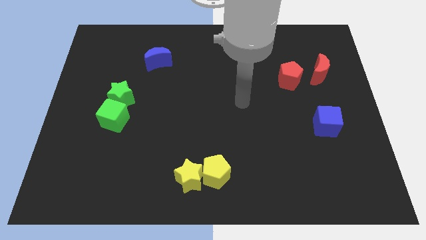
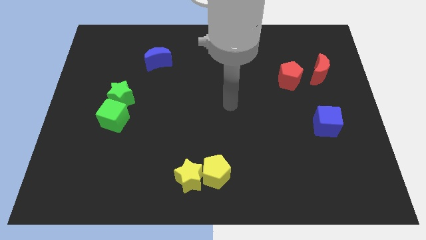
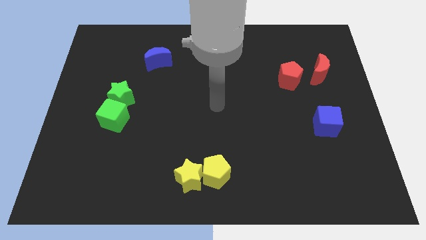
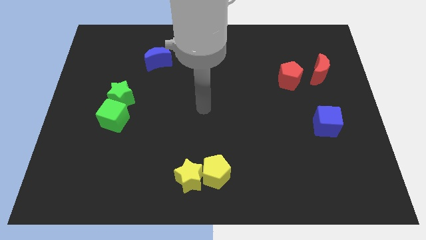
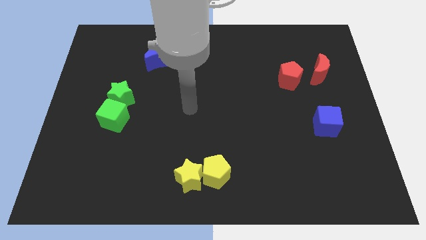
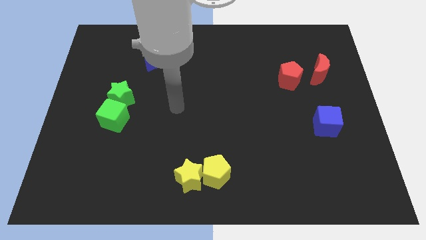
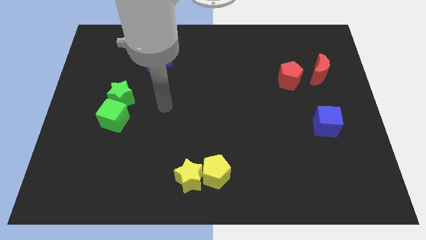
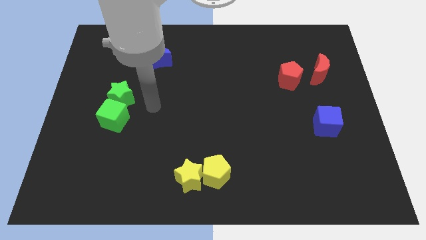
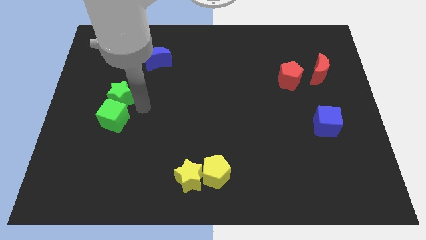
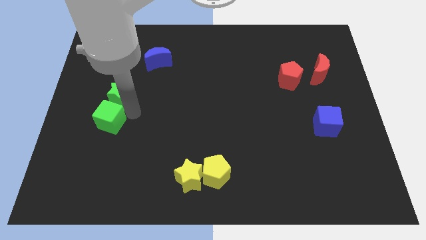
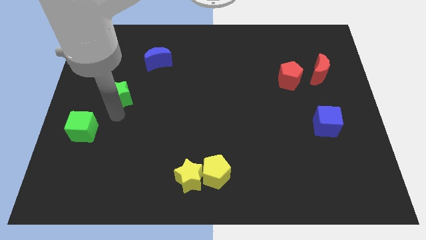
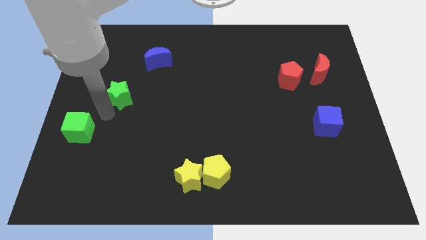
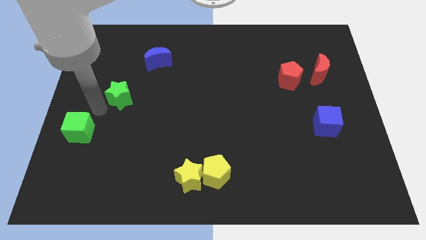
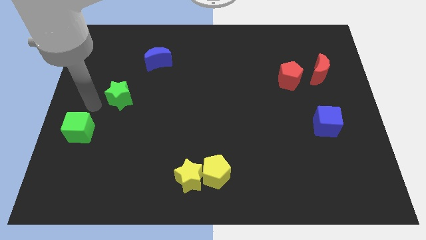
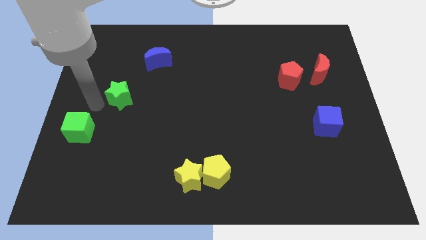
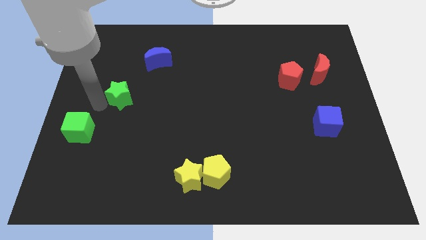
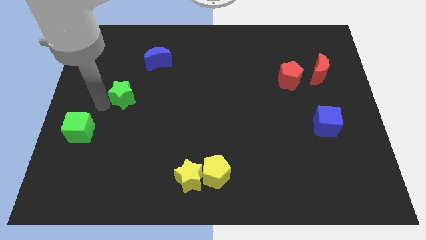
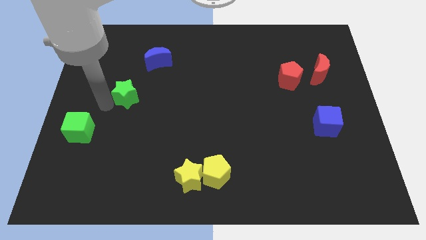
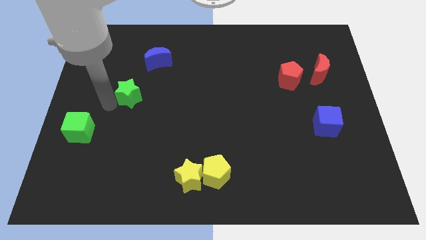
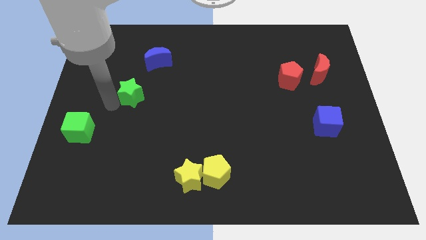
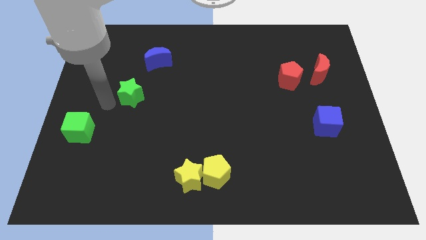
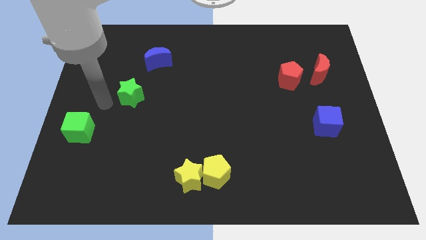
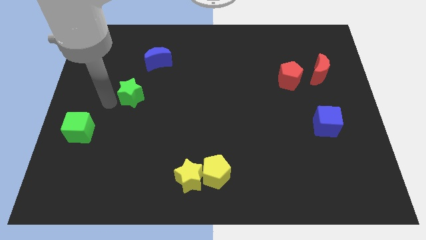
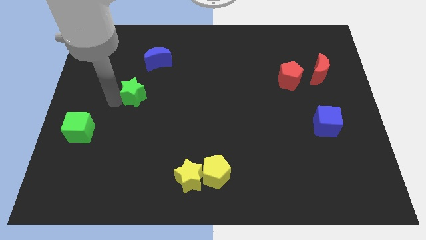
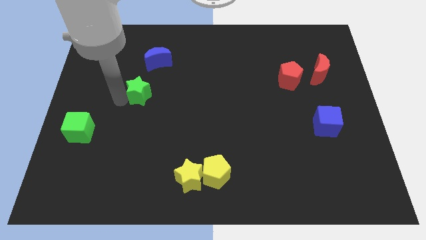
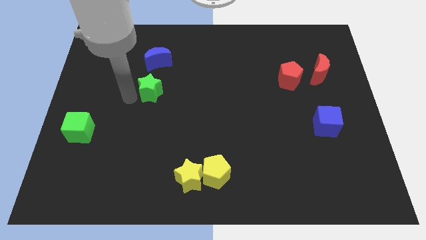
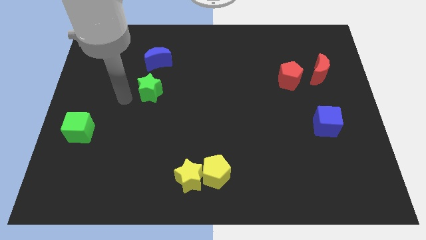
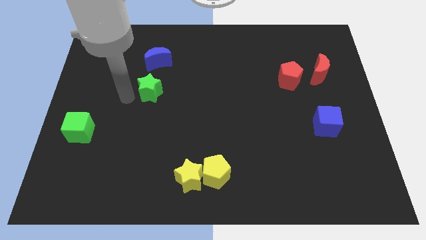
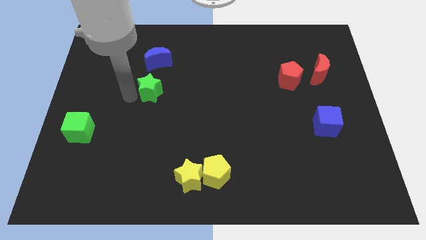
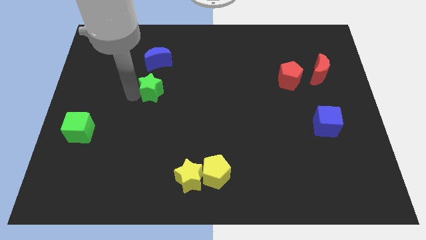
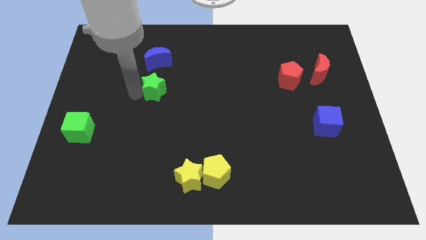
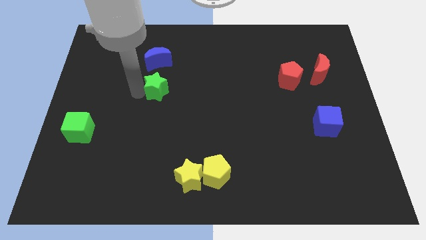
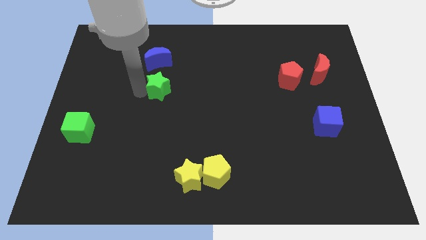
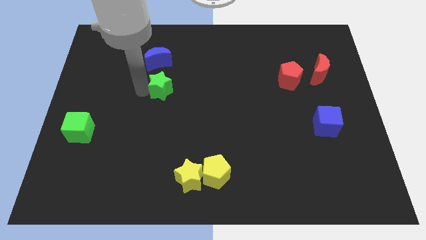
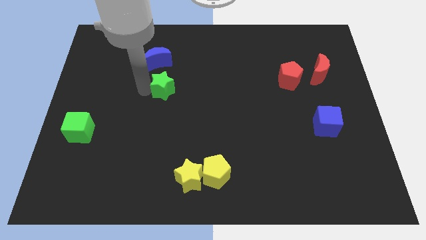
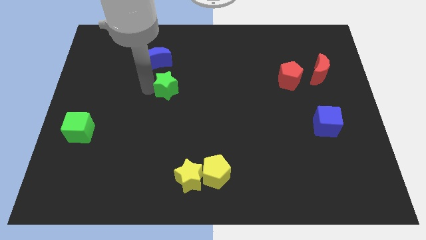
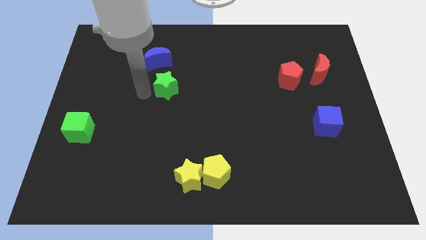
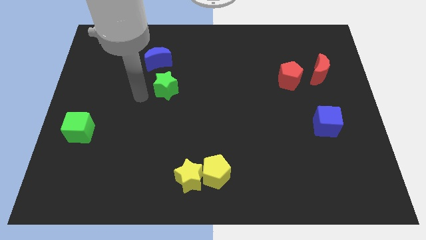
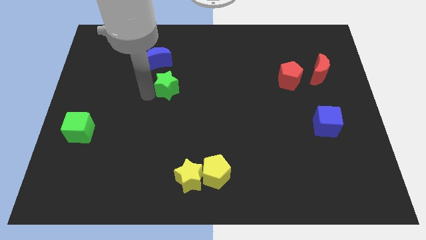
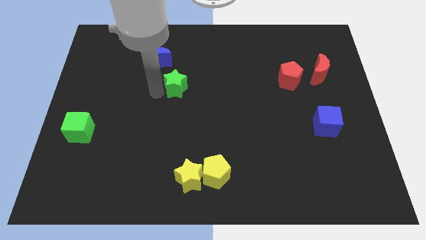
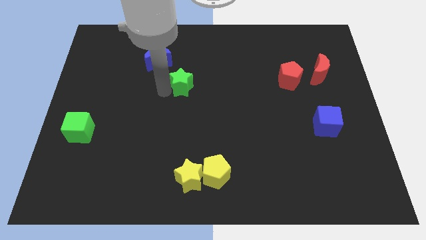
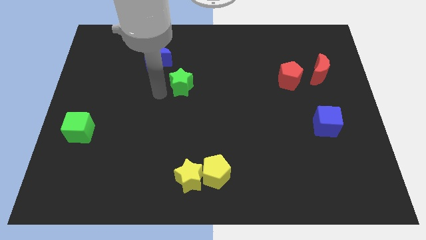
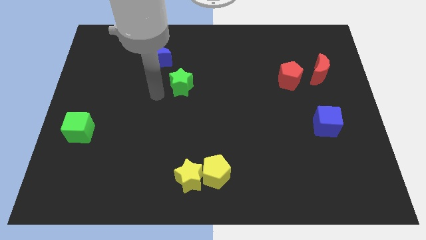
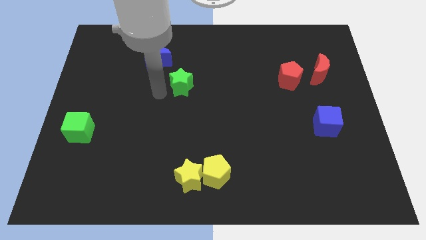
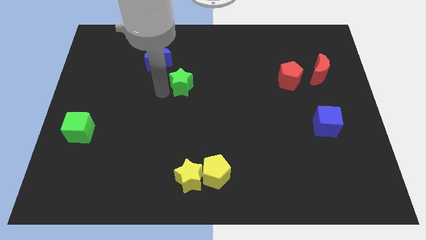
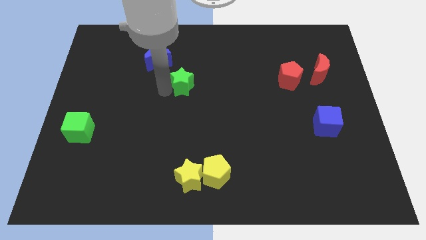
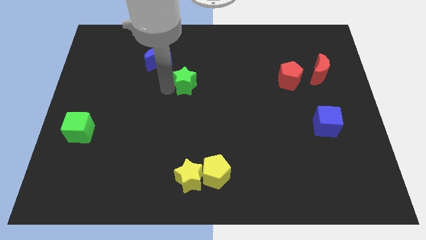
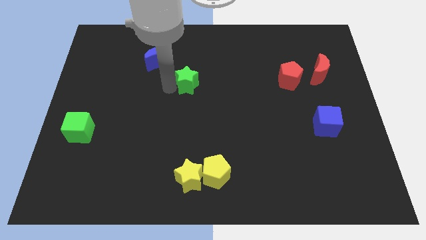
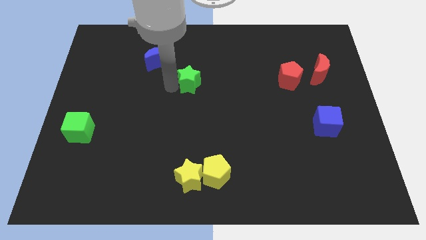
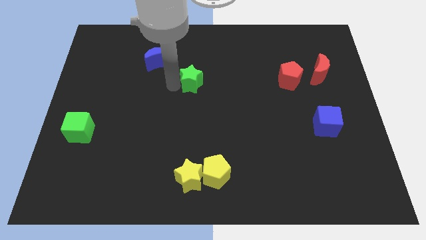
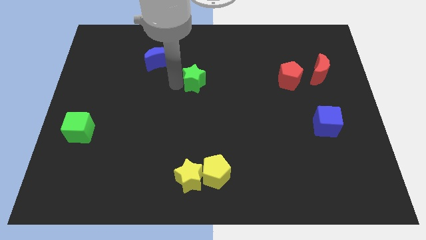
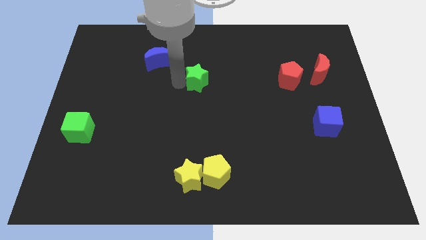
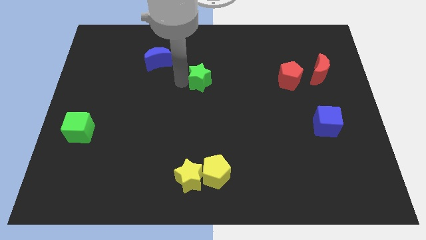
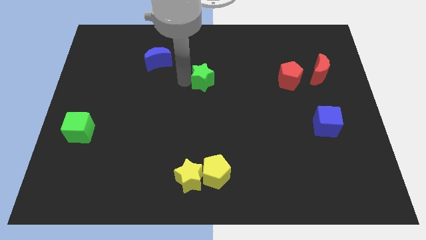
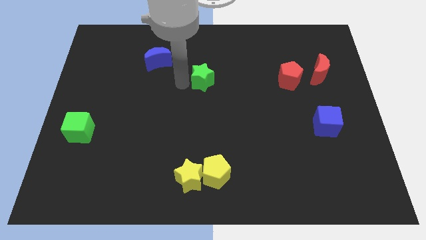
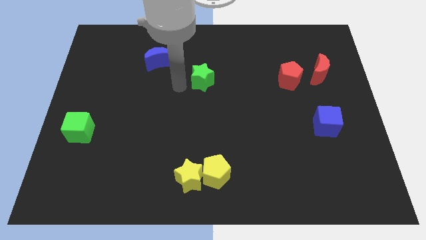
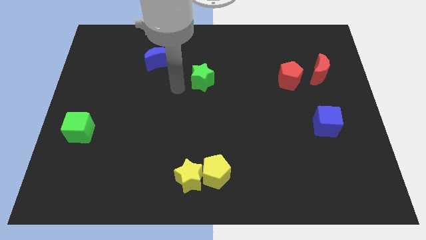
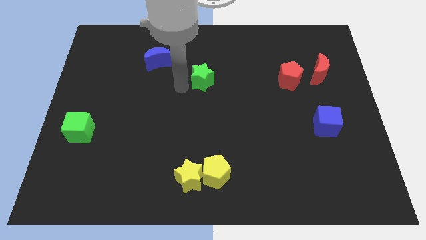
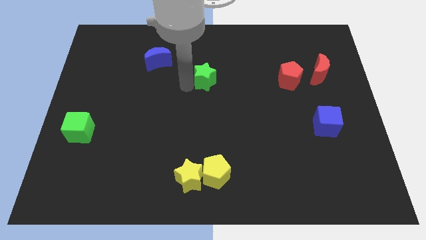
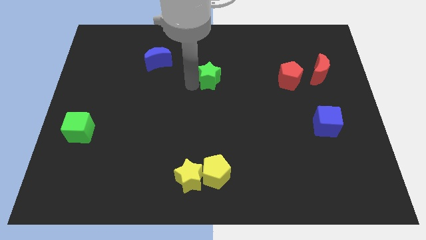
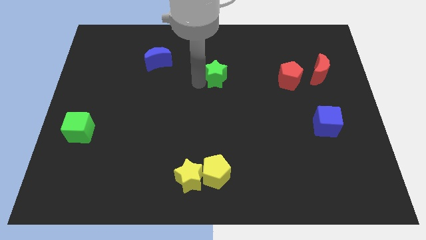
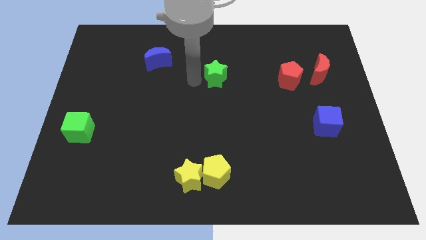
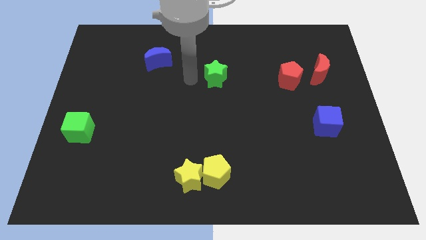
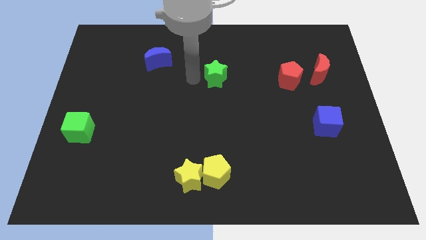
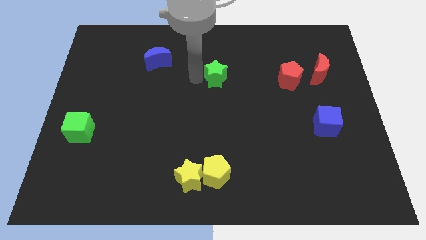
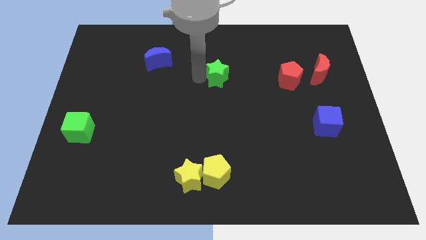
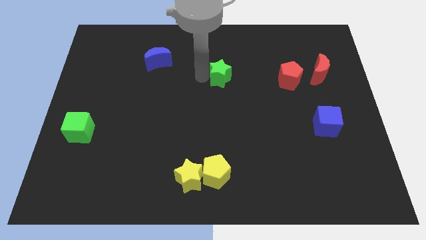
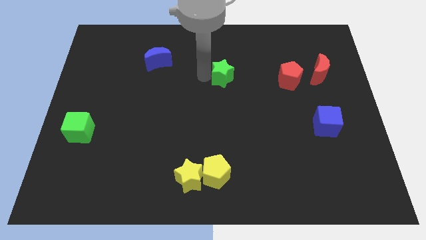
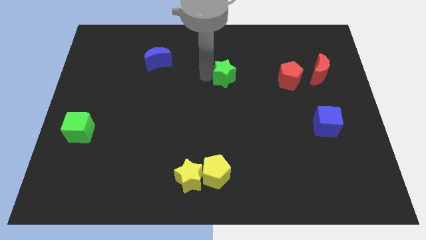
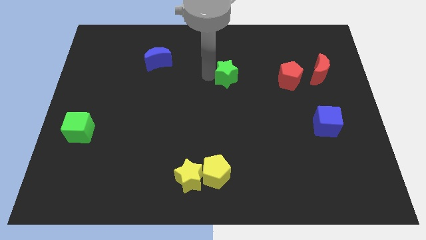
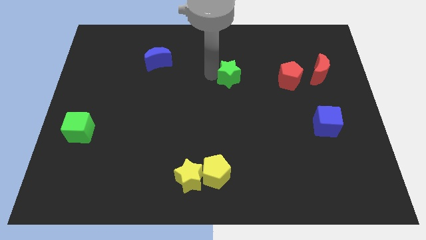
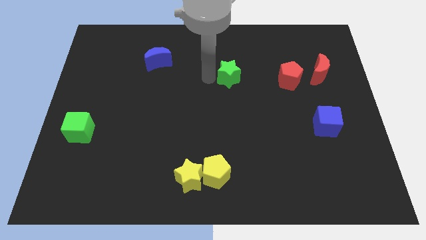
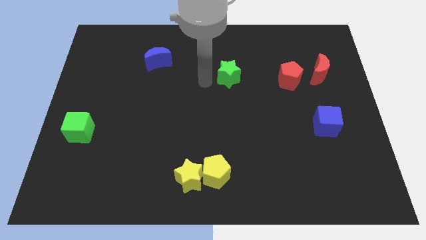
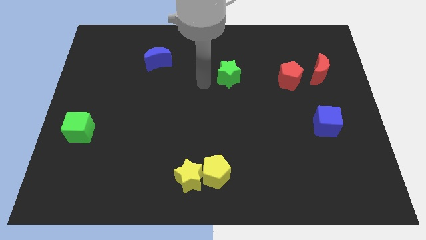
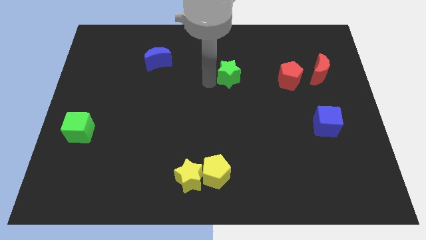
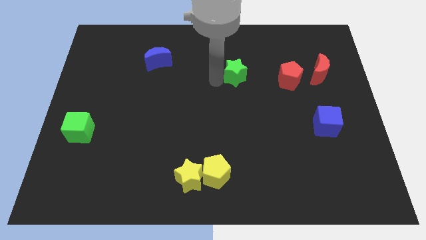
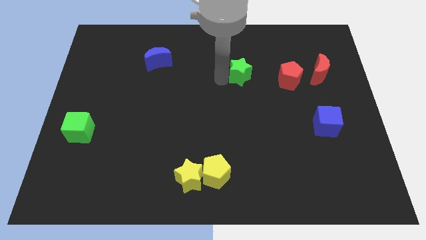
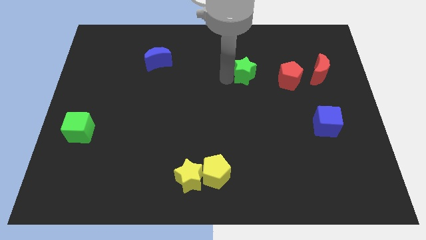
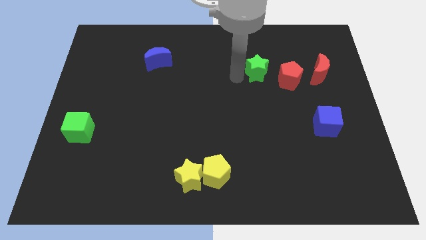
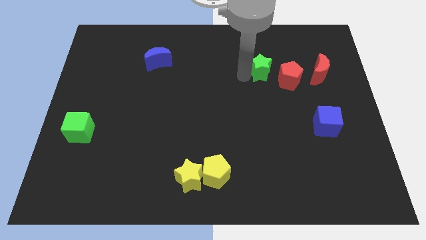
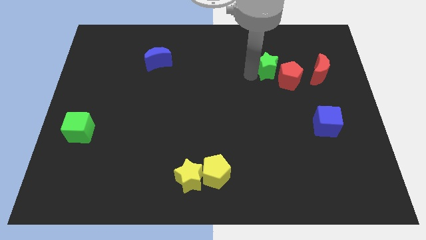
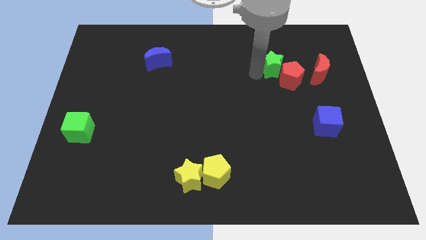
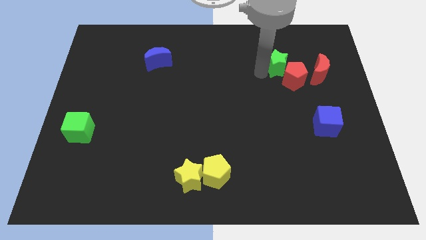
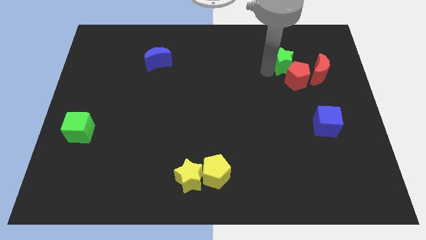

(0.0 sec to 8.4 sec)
push the green star to the top left of the red moon

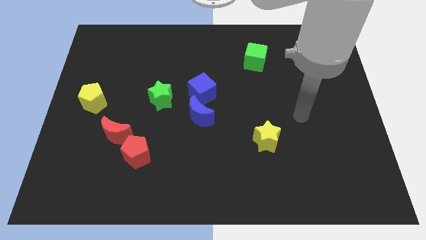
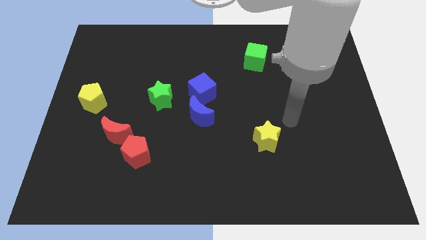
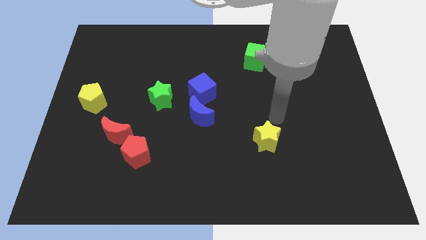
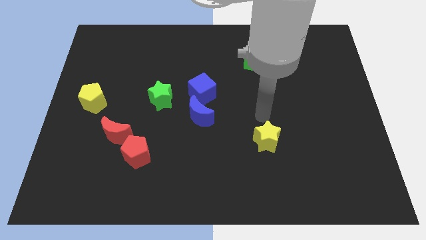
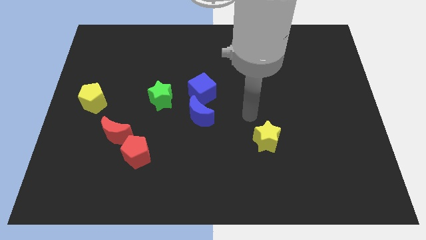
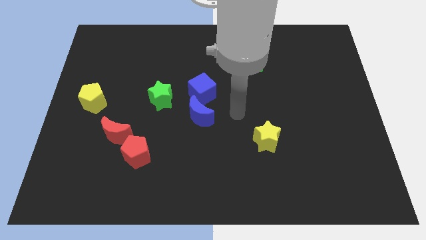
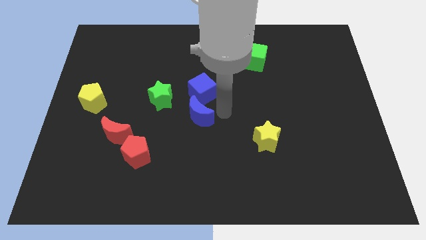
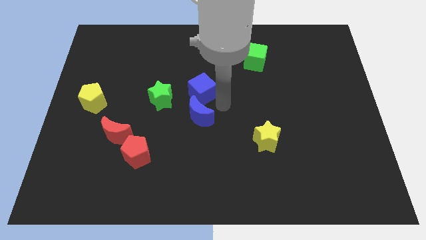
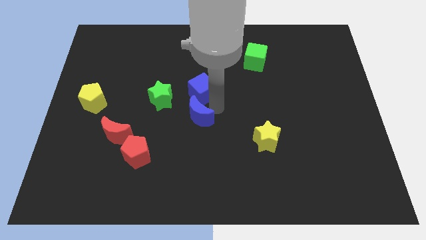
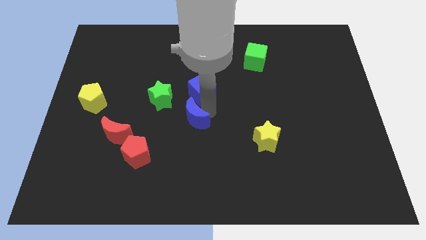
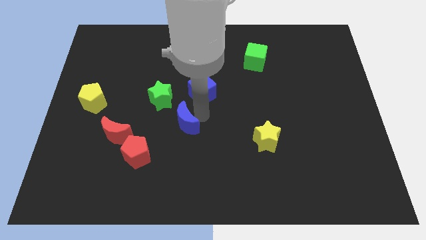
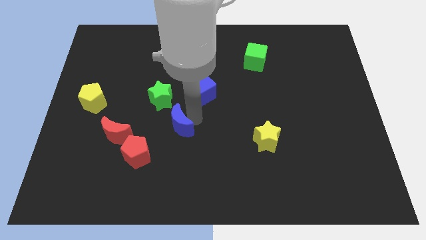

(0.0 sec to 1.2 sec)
put the blue moon diagonally up and to the right of the red pentagon
